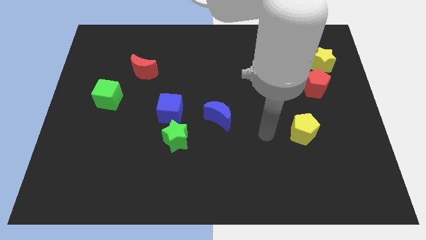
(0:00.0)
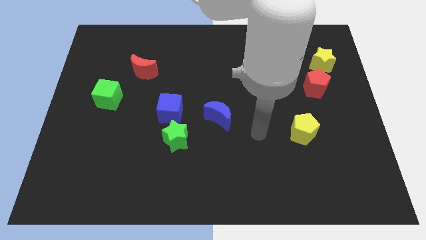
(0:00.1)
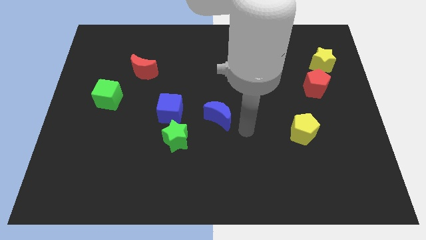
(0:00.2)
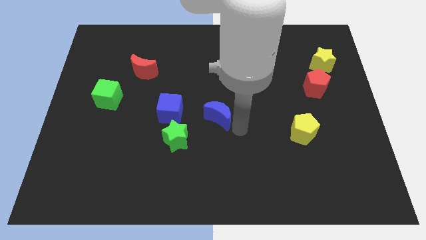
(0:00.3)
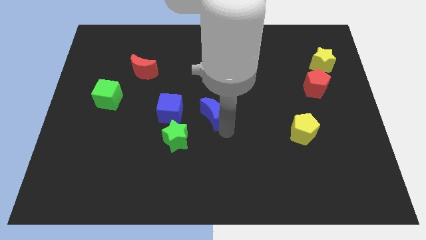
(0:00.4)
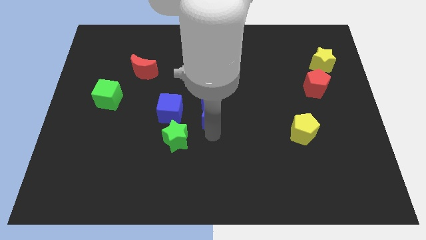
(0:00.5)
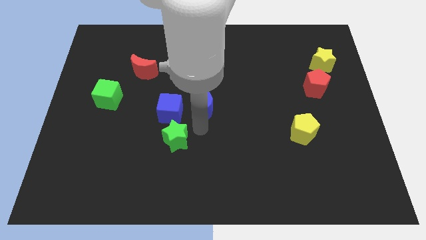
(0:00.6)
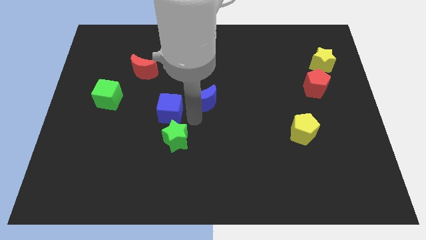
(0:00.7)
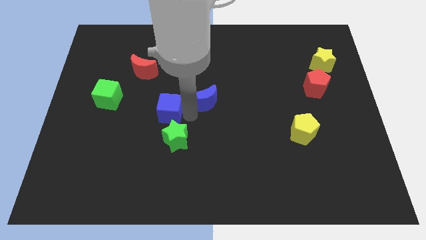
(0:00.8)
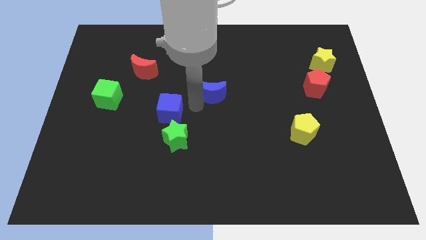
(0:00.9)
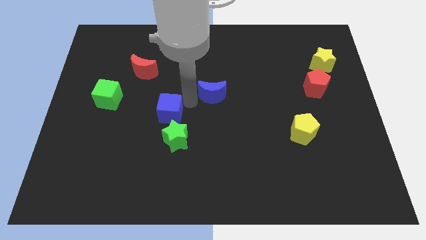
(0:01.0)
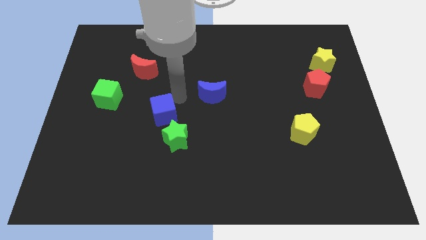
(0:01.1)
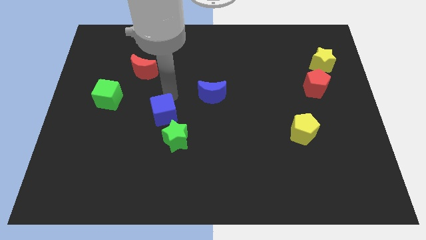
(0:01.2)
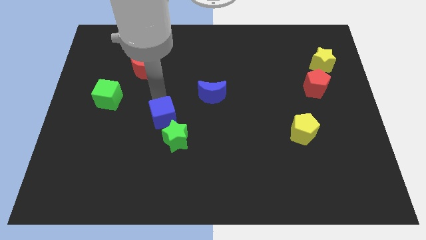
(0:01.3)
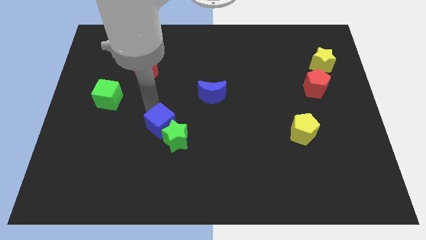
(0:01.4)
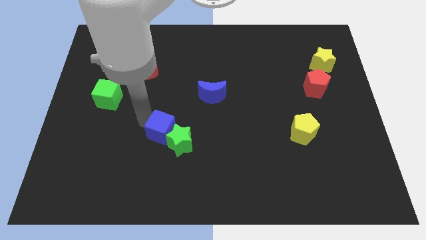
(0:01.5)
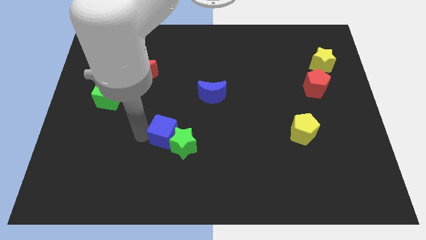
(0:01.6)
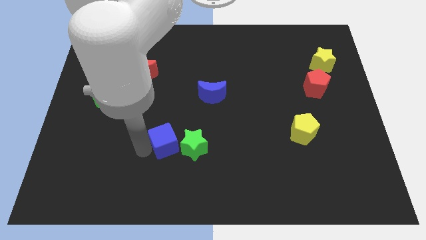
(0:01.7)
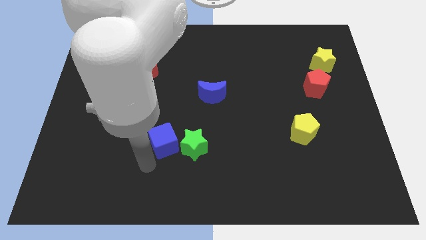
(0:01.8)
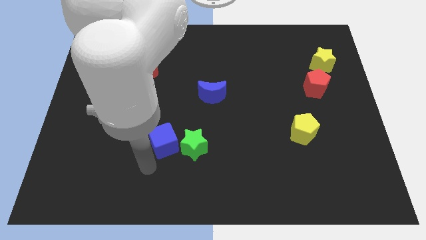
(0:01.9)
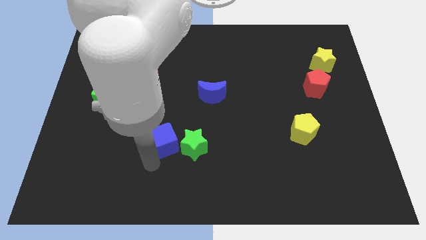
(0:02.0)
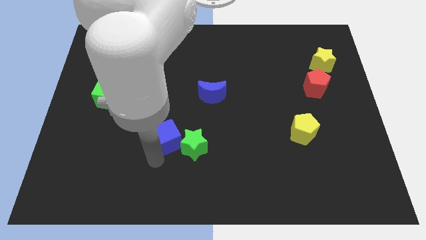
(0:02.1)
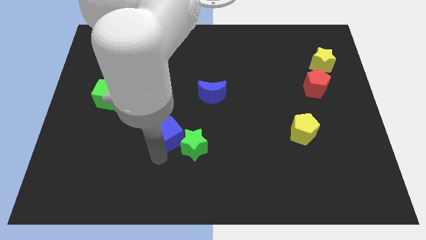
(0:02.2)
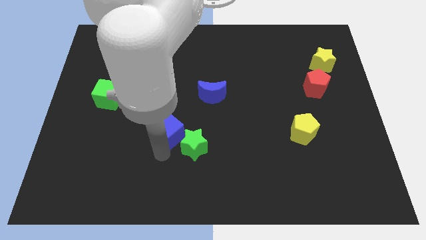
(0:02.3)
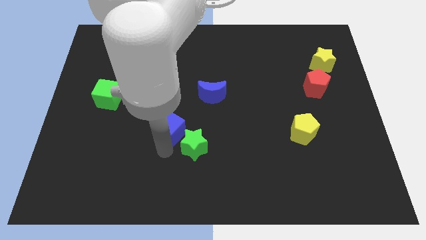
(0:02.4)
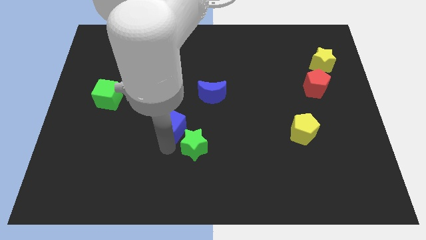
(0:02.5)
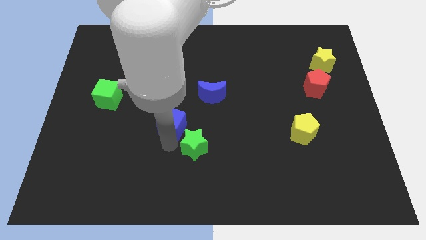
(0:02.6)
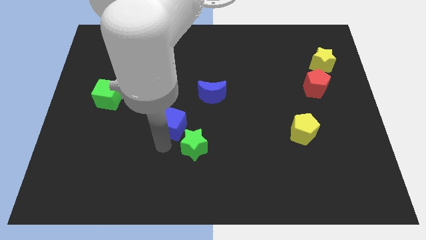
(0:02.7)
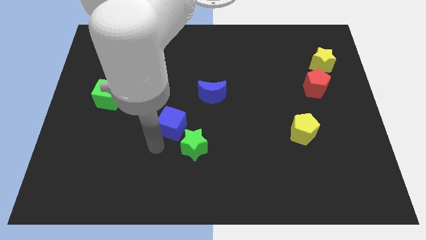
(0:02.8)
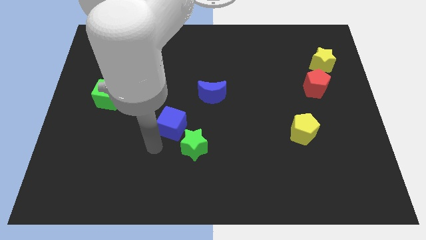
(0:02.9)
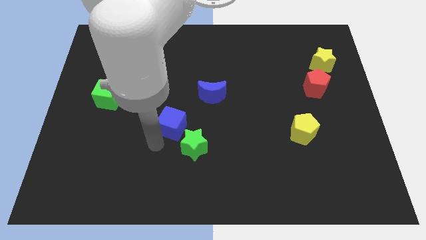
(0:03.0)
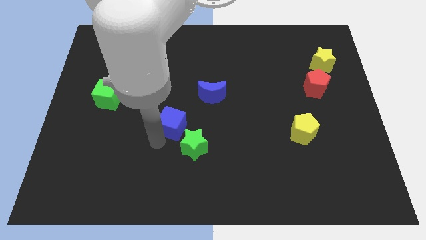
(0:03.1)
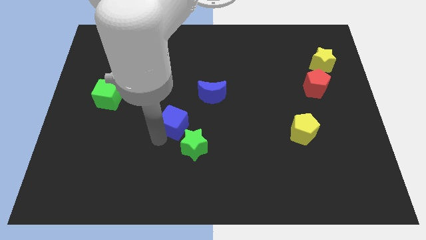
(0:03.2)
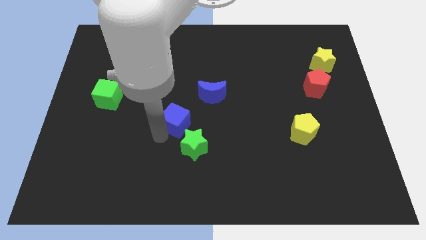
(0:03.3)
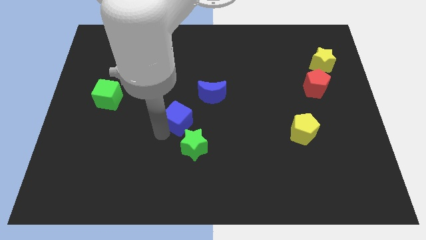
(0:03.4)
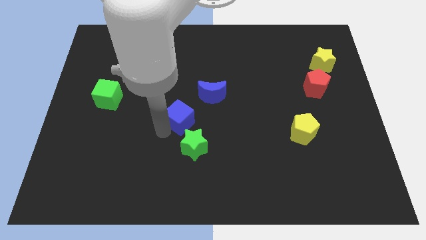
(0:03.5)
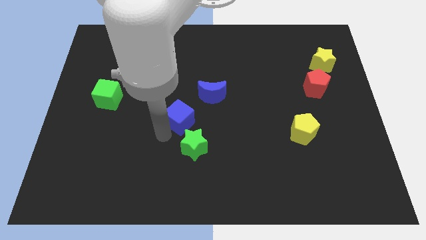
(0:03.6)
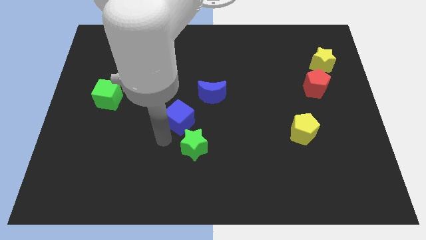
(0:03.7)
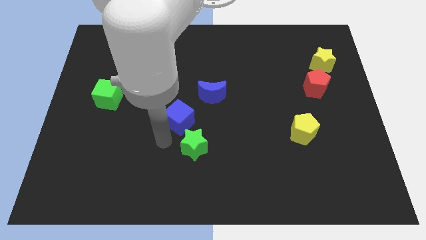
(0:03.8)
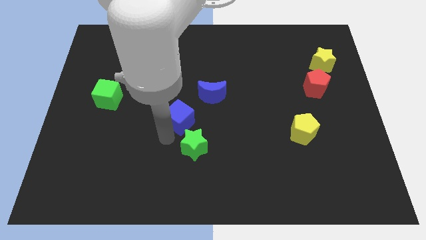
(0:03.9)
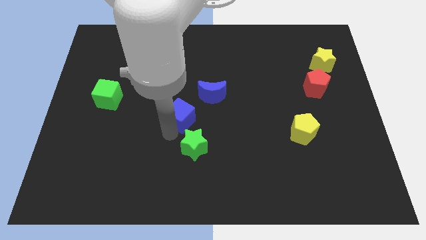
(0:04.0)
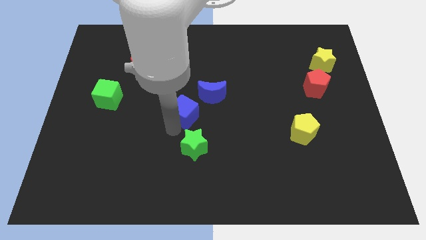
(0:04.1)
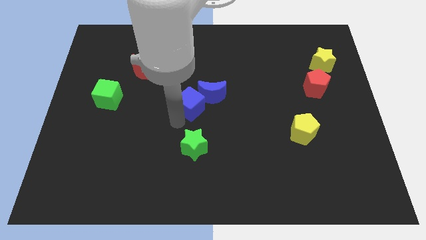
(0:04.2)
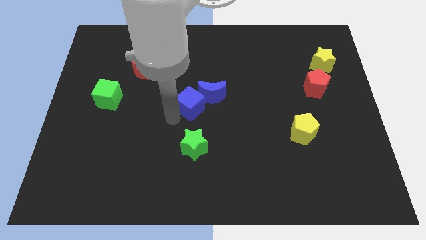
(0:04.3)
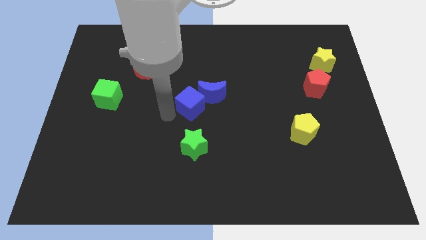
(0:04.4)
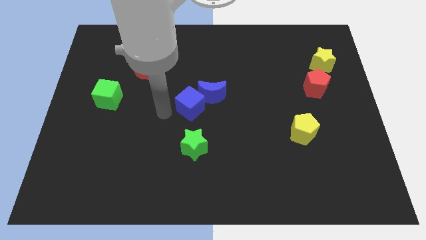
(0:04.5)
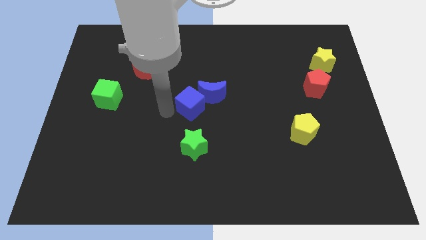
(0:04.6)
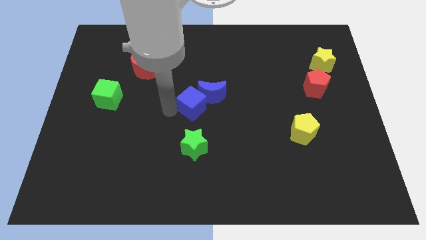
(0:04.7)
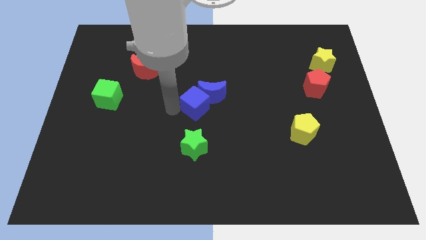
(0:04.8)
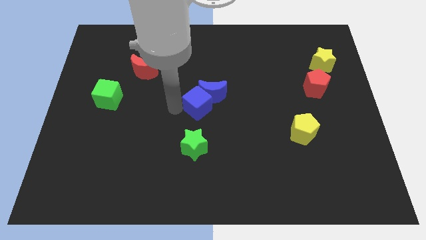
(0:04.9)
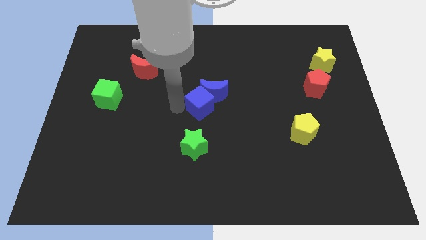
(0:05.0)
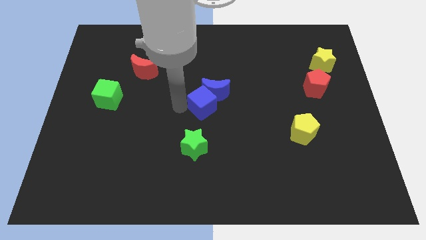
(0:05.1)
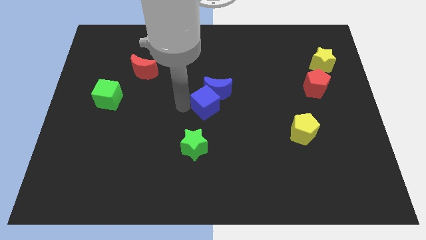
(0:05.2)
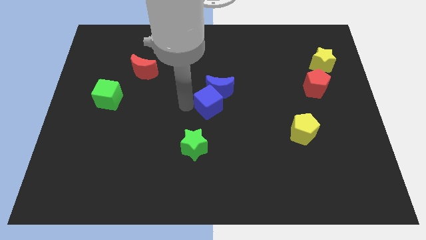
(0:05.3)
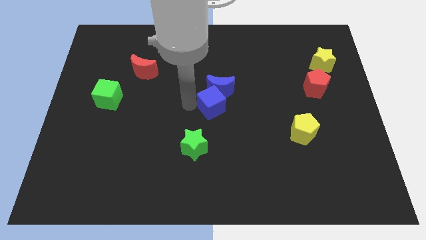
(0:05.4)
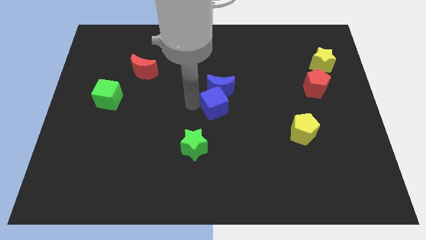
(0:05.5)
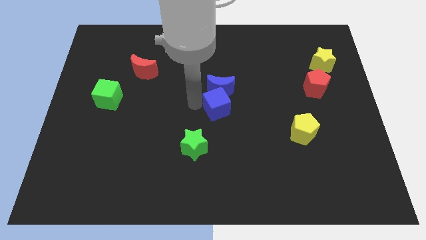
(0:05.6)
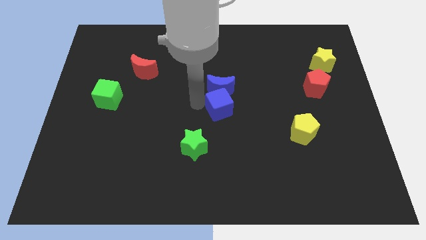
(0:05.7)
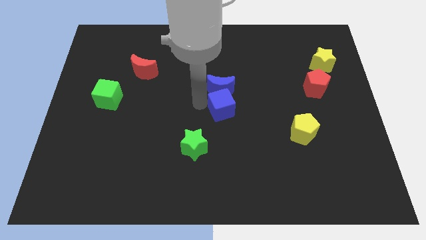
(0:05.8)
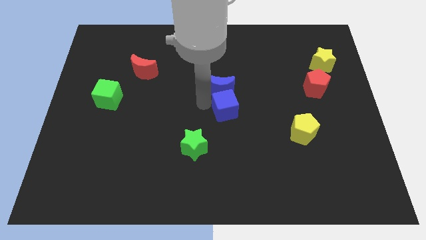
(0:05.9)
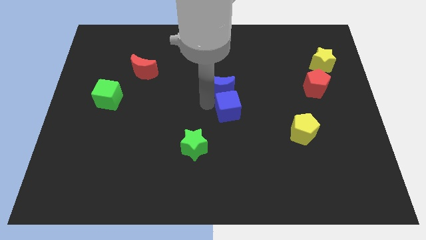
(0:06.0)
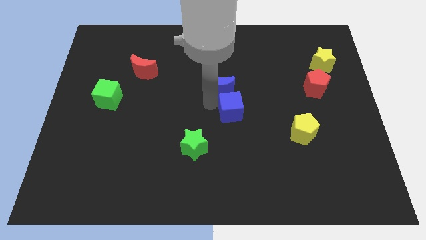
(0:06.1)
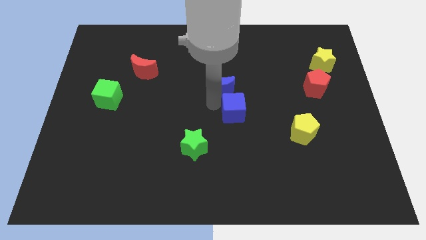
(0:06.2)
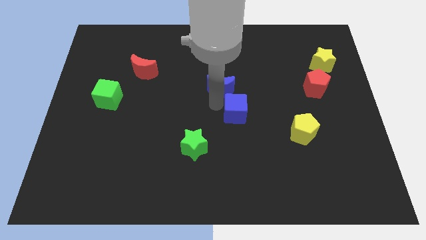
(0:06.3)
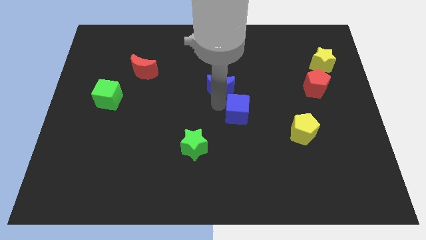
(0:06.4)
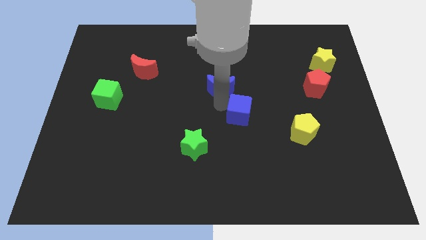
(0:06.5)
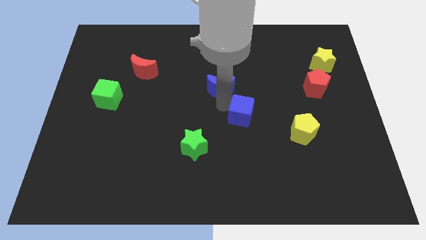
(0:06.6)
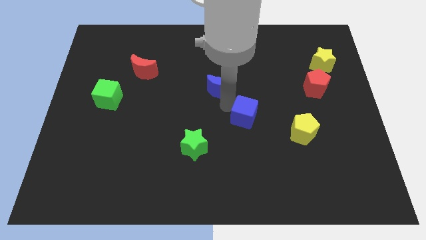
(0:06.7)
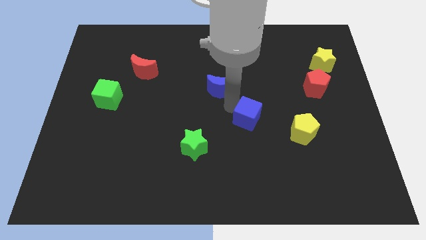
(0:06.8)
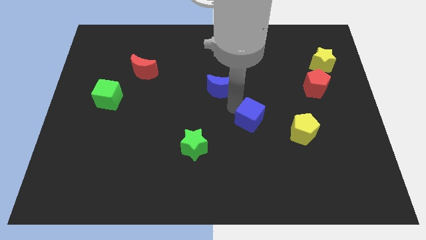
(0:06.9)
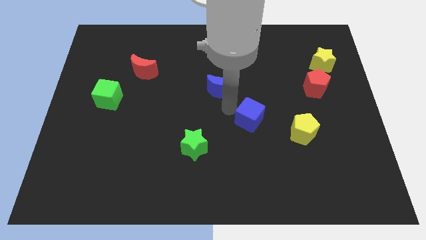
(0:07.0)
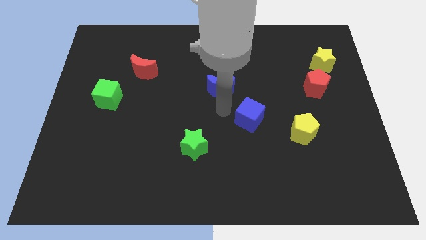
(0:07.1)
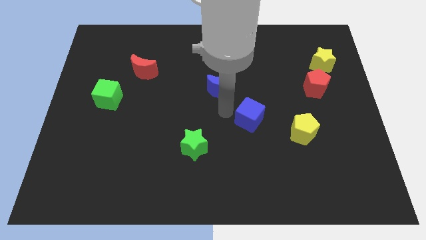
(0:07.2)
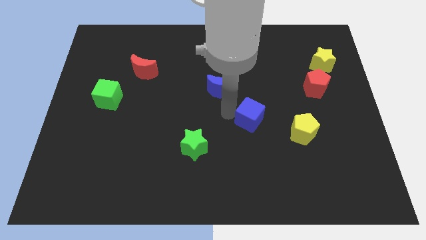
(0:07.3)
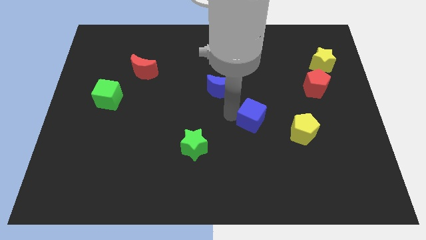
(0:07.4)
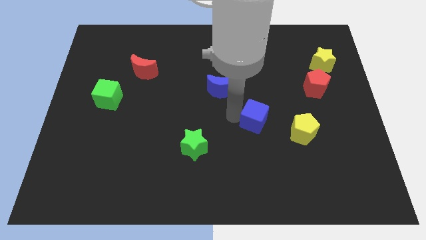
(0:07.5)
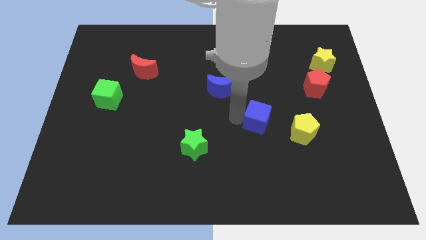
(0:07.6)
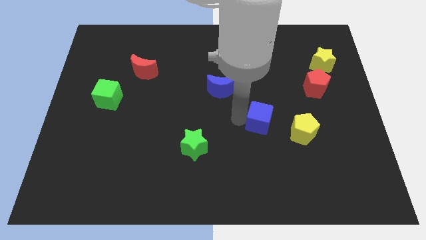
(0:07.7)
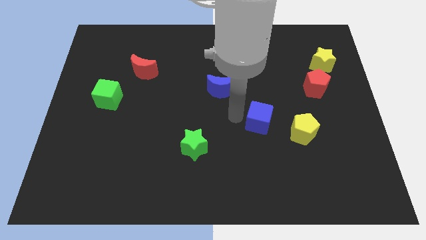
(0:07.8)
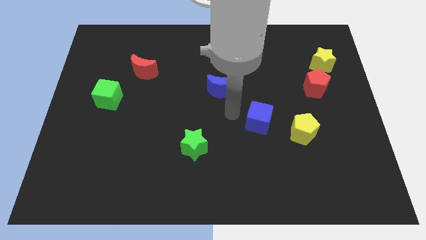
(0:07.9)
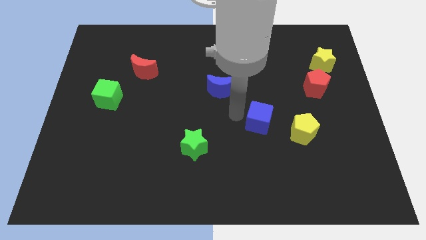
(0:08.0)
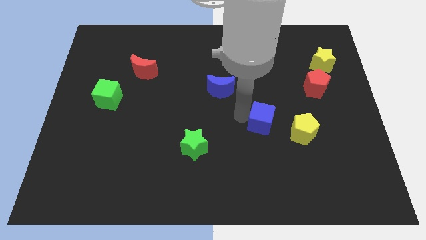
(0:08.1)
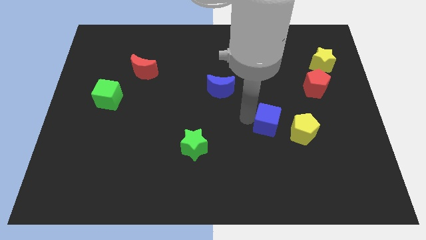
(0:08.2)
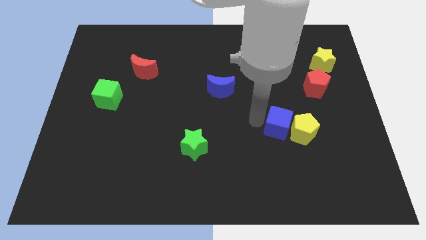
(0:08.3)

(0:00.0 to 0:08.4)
put the blue cube towards the yellow pentagon
